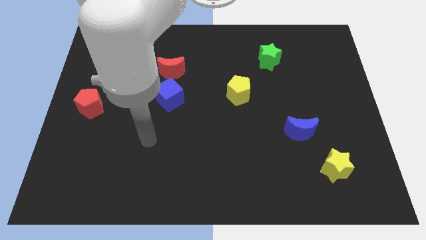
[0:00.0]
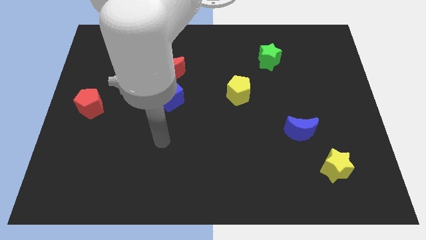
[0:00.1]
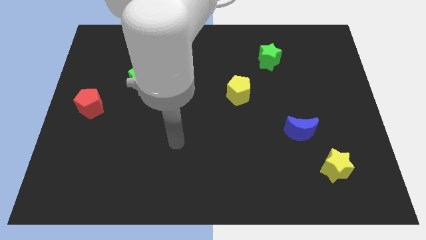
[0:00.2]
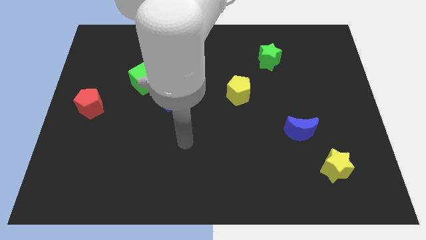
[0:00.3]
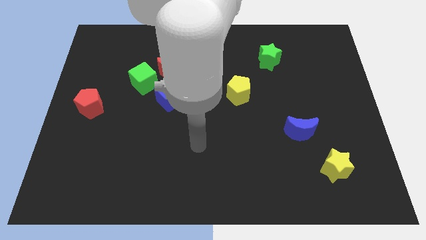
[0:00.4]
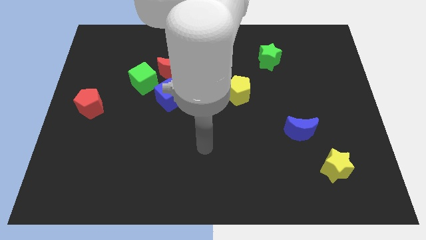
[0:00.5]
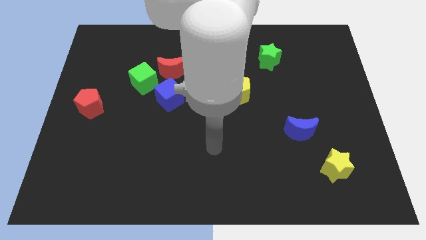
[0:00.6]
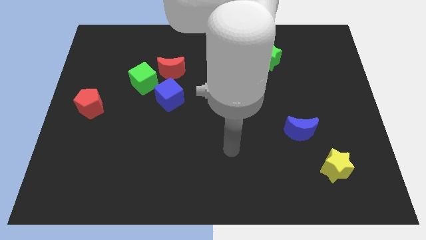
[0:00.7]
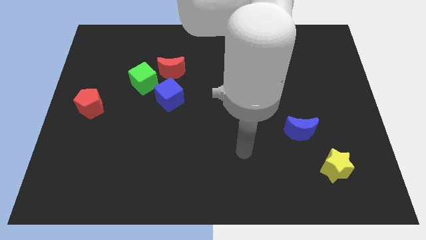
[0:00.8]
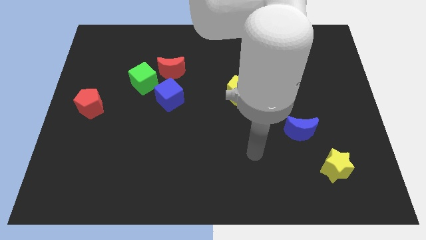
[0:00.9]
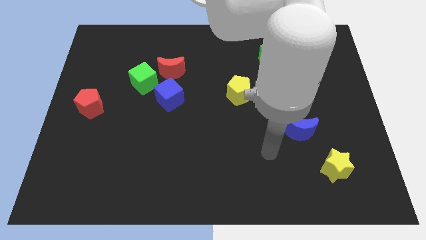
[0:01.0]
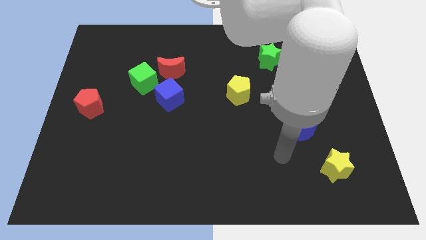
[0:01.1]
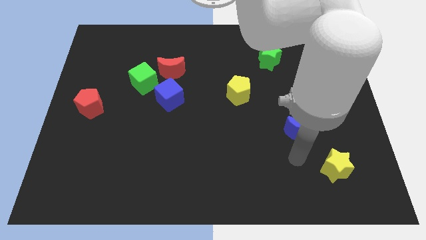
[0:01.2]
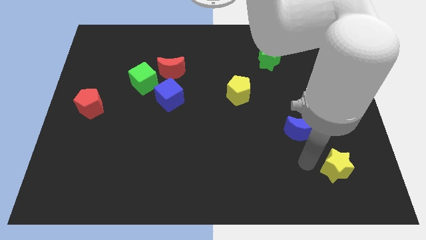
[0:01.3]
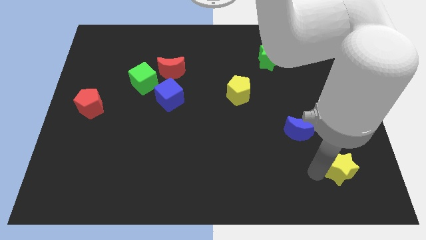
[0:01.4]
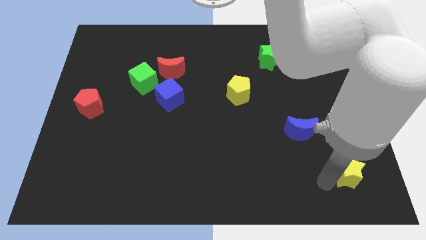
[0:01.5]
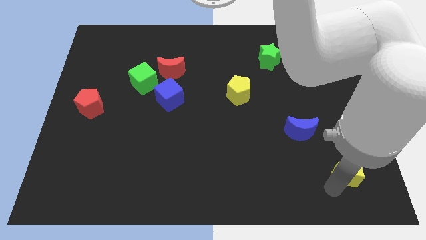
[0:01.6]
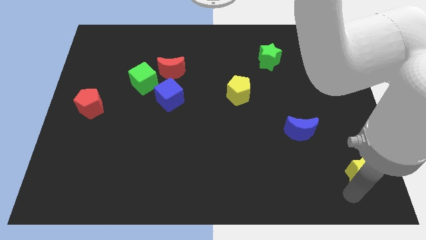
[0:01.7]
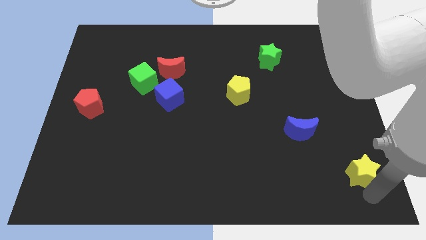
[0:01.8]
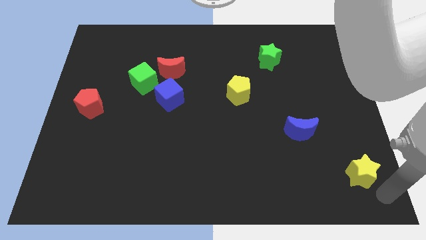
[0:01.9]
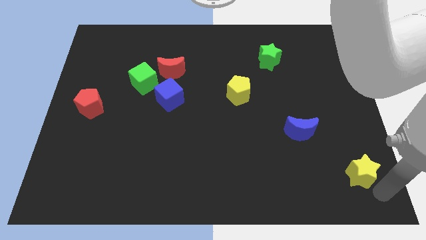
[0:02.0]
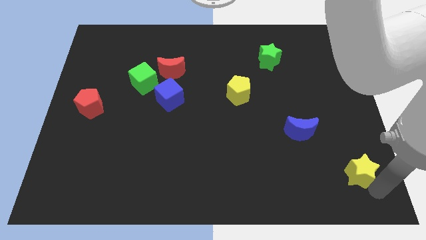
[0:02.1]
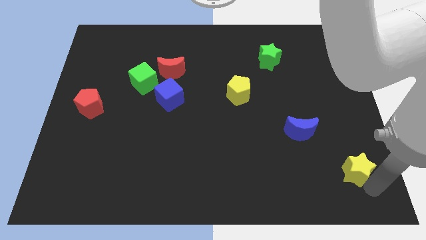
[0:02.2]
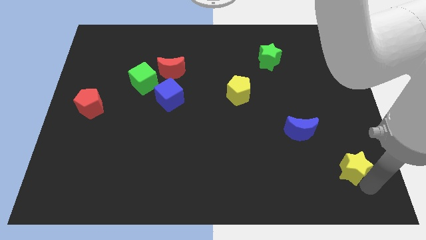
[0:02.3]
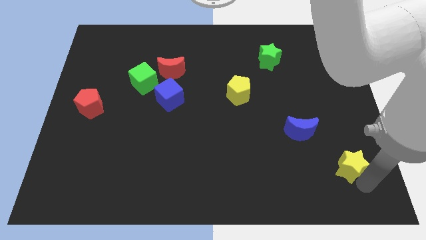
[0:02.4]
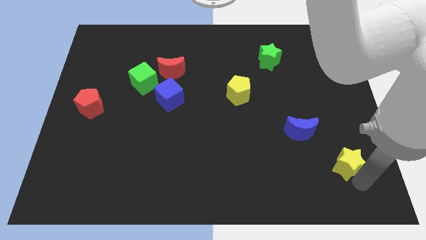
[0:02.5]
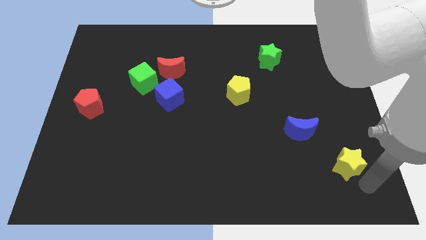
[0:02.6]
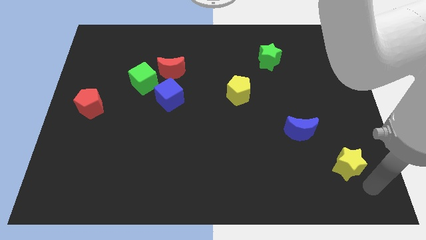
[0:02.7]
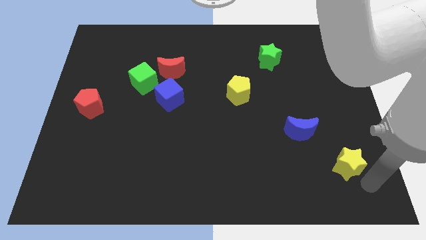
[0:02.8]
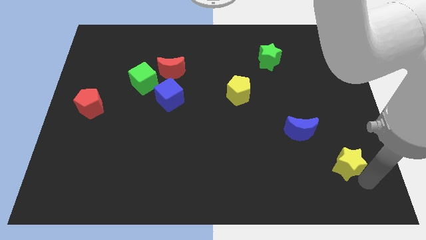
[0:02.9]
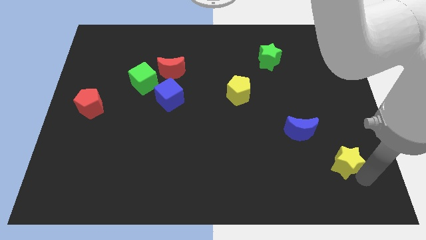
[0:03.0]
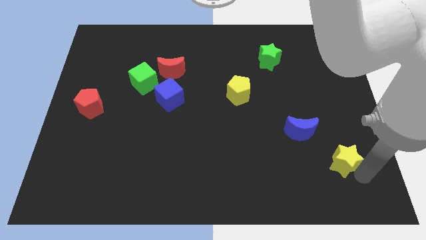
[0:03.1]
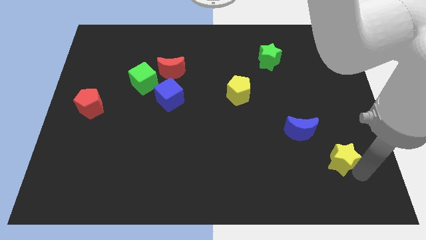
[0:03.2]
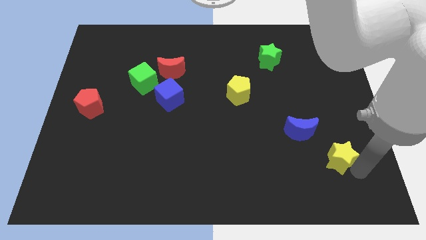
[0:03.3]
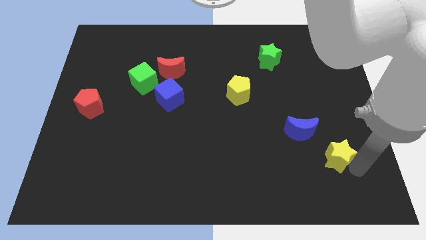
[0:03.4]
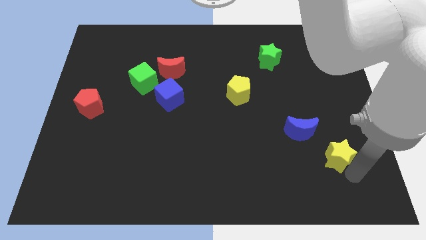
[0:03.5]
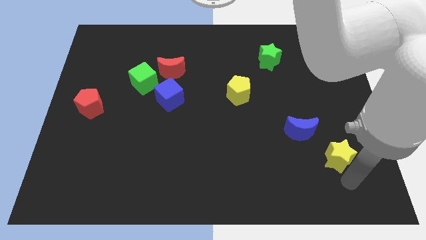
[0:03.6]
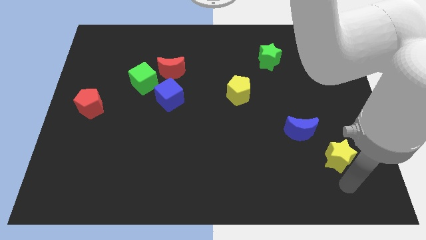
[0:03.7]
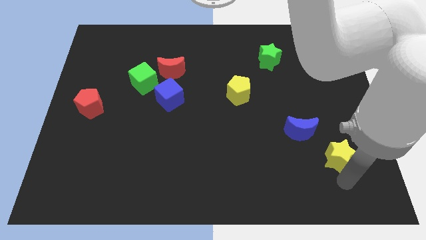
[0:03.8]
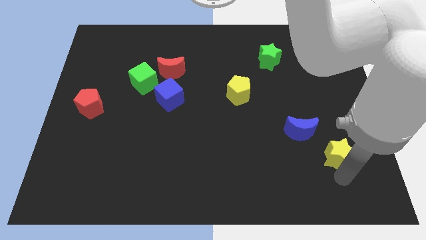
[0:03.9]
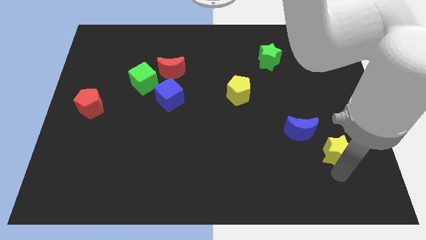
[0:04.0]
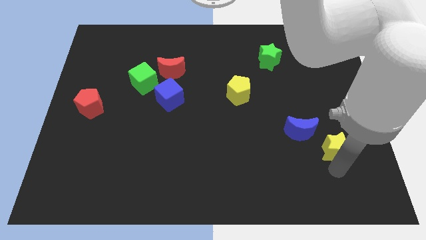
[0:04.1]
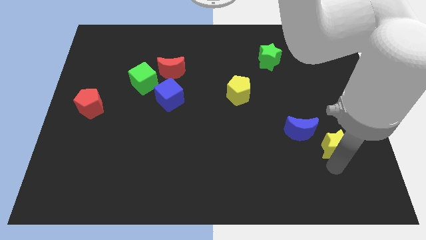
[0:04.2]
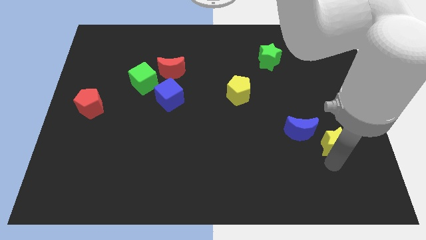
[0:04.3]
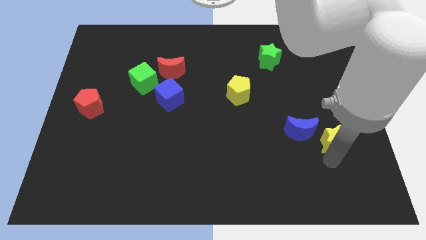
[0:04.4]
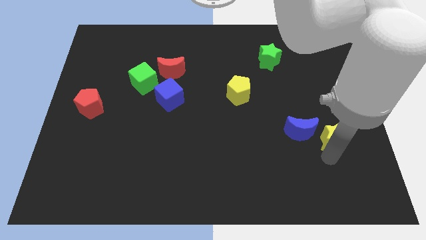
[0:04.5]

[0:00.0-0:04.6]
slightly slide the yellow star upwards

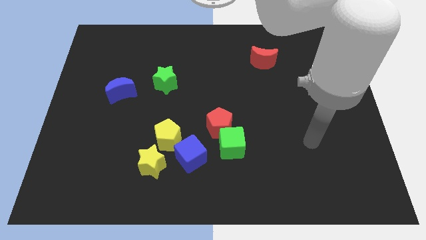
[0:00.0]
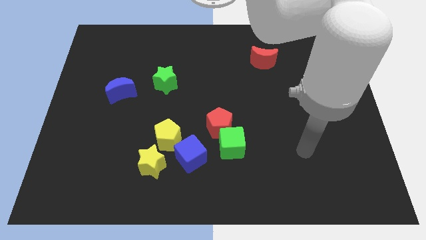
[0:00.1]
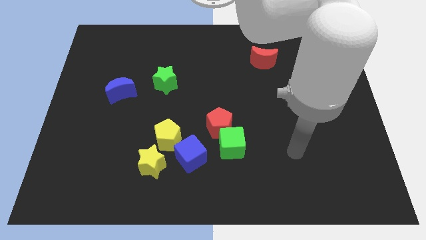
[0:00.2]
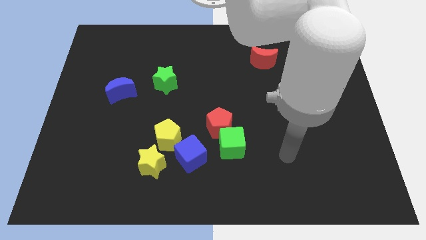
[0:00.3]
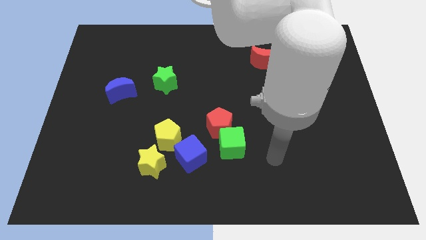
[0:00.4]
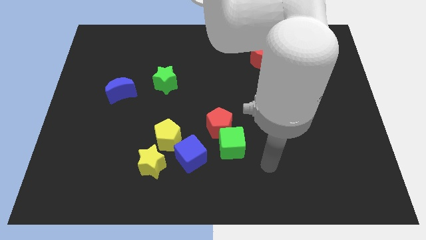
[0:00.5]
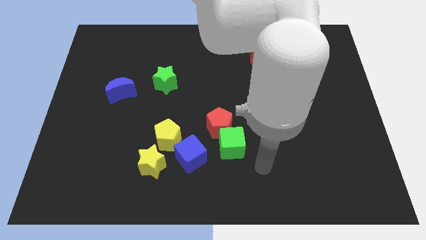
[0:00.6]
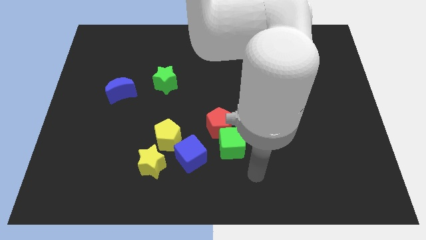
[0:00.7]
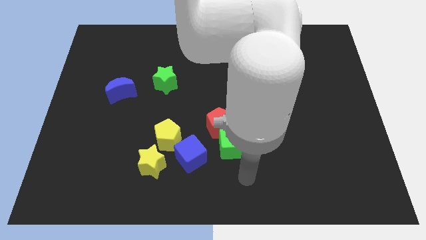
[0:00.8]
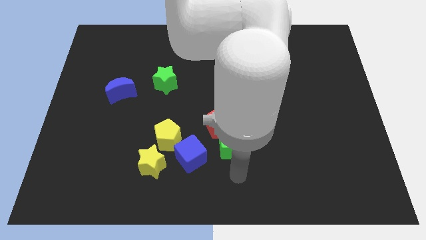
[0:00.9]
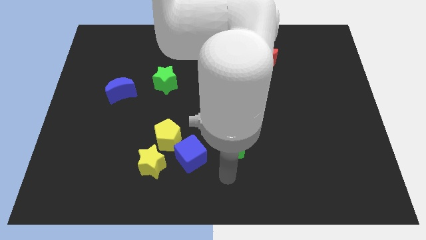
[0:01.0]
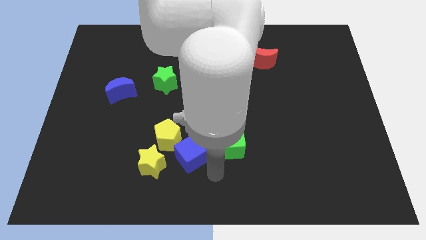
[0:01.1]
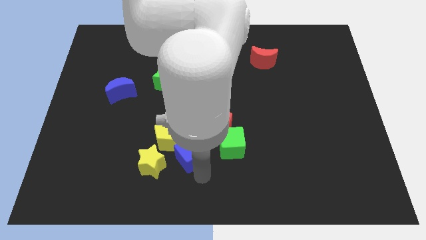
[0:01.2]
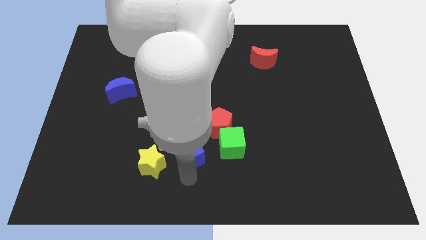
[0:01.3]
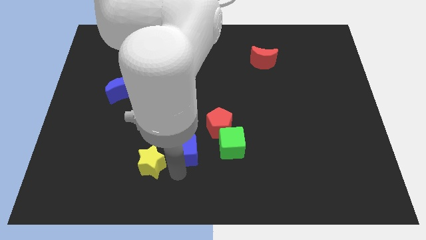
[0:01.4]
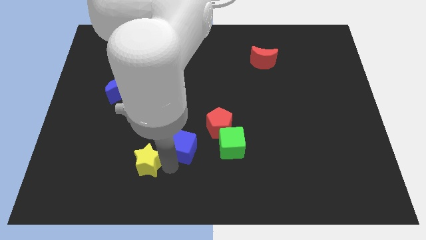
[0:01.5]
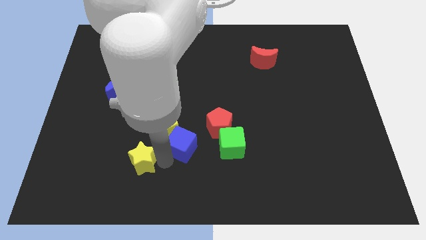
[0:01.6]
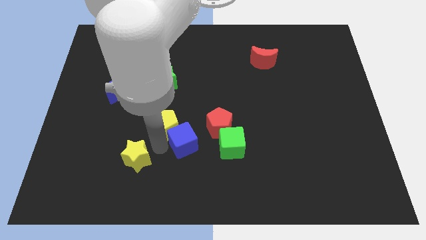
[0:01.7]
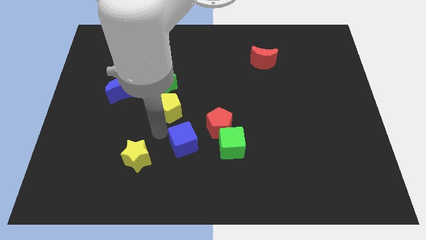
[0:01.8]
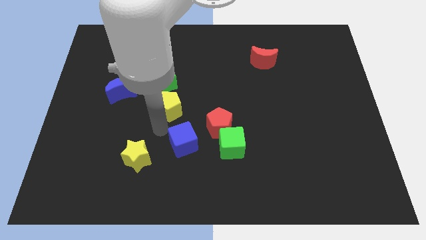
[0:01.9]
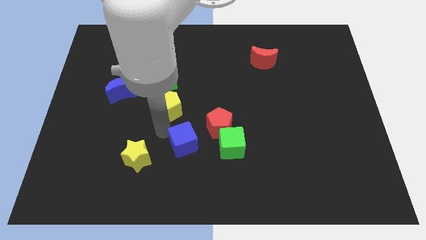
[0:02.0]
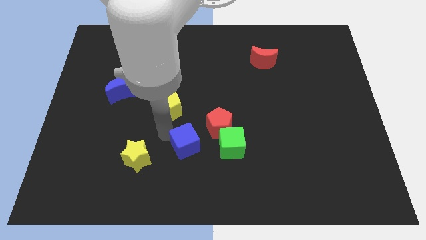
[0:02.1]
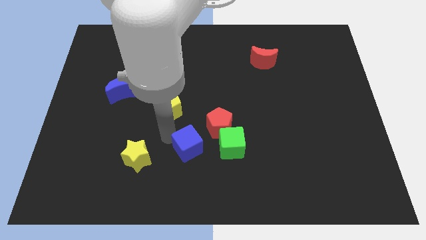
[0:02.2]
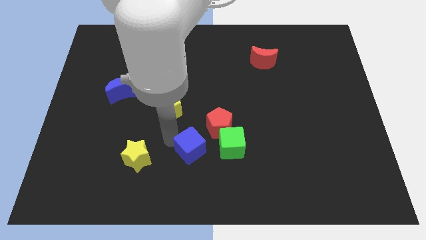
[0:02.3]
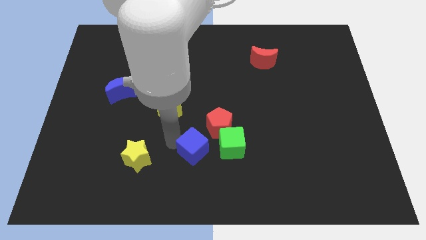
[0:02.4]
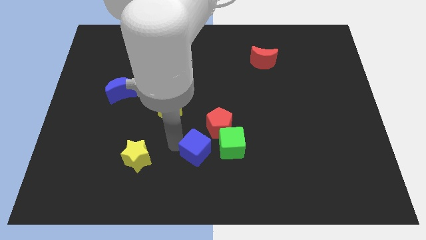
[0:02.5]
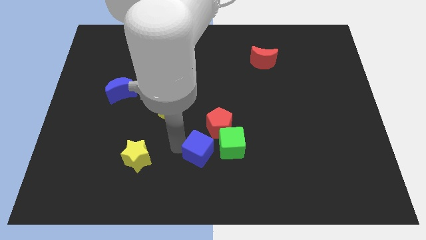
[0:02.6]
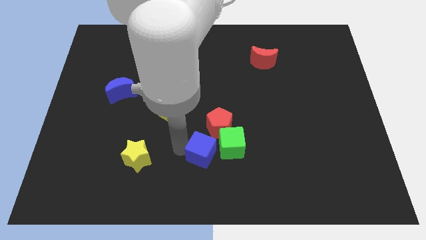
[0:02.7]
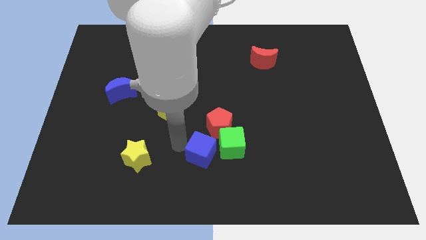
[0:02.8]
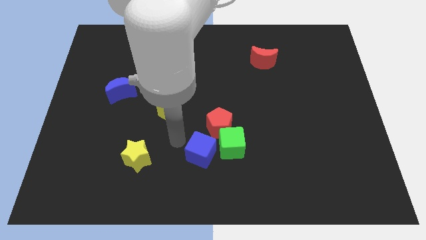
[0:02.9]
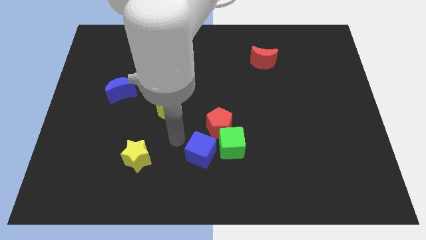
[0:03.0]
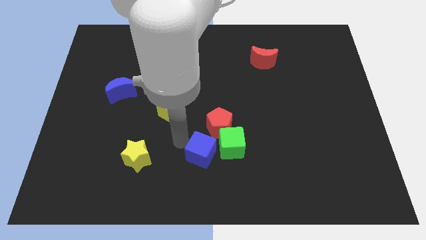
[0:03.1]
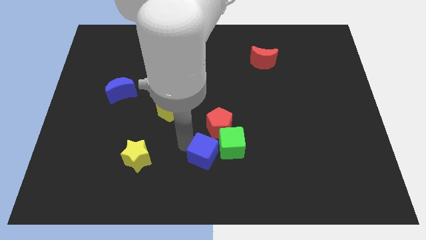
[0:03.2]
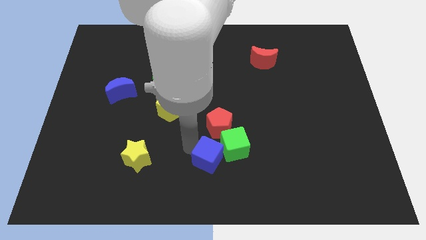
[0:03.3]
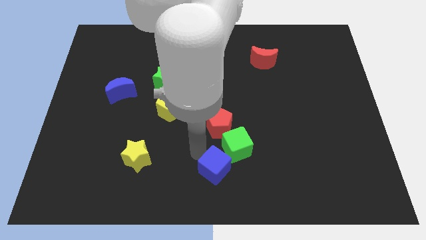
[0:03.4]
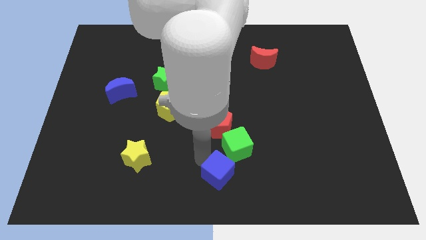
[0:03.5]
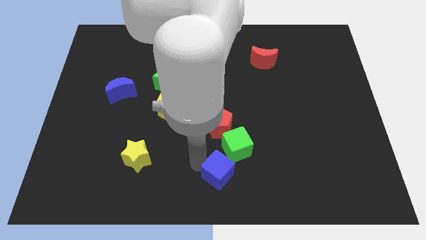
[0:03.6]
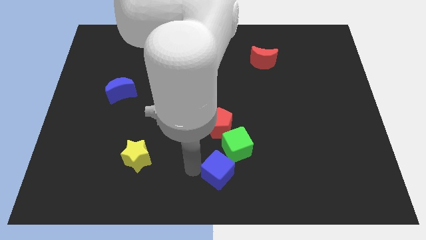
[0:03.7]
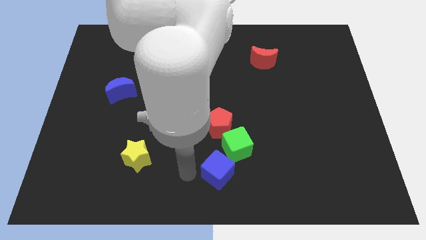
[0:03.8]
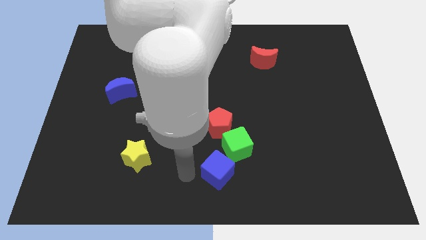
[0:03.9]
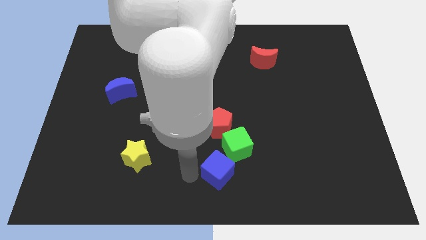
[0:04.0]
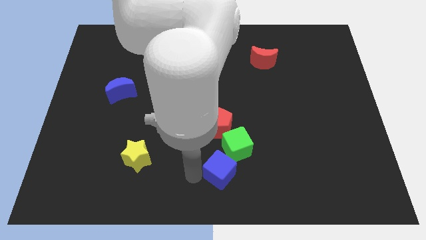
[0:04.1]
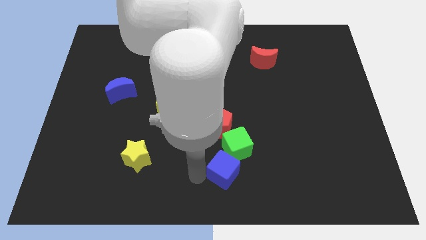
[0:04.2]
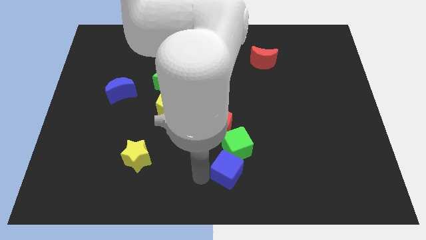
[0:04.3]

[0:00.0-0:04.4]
slide the blue cube somewhat to the right
